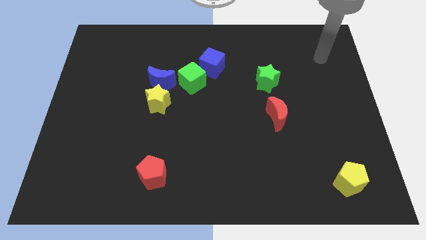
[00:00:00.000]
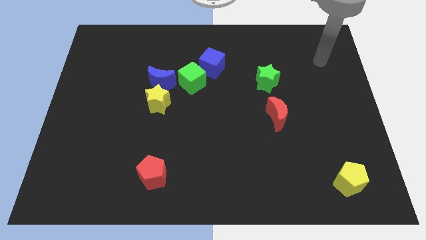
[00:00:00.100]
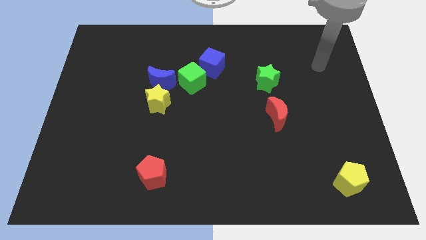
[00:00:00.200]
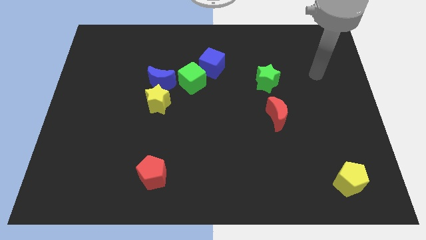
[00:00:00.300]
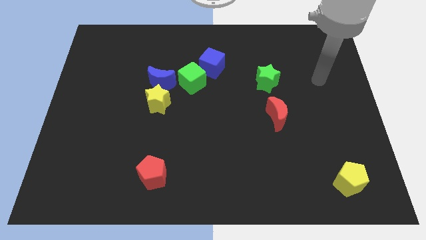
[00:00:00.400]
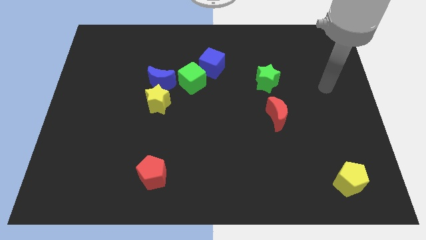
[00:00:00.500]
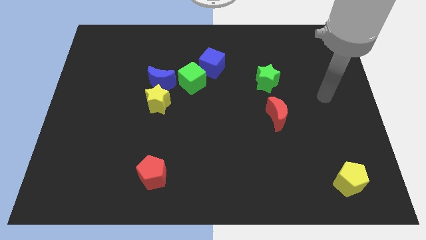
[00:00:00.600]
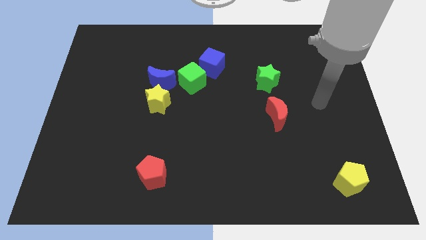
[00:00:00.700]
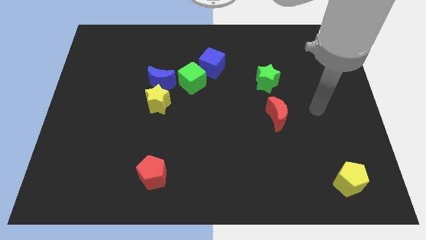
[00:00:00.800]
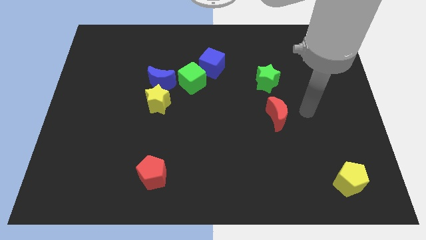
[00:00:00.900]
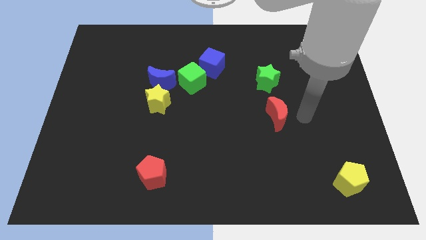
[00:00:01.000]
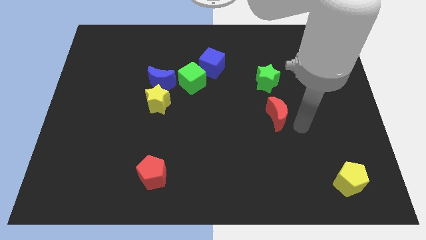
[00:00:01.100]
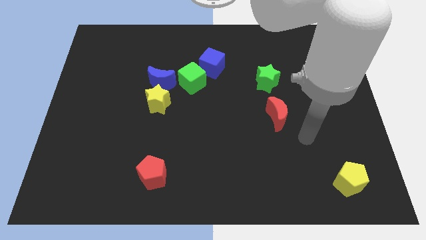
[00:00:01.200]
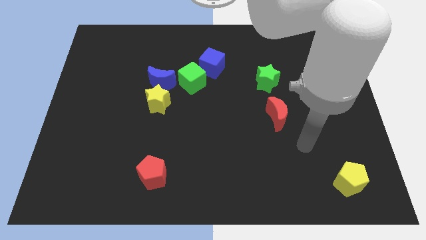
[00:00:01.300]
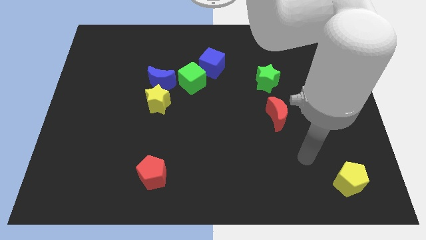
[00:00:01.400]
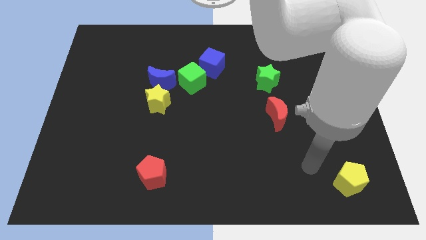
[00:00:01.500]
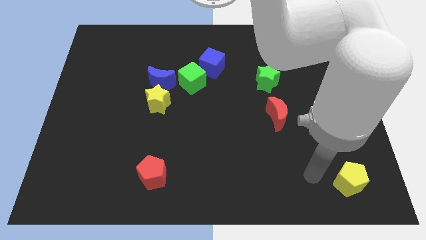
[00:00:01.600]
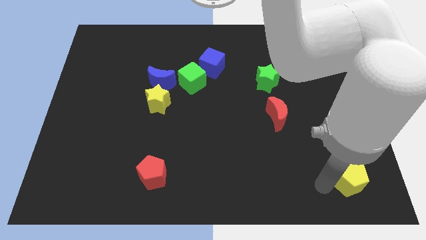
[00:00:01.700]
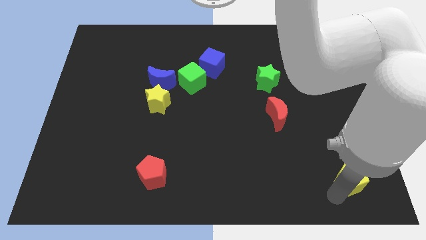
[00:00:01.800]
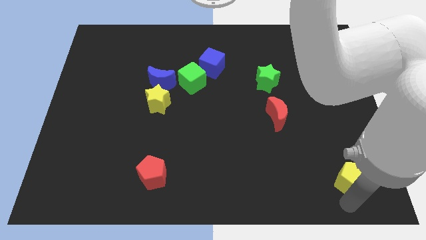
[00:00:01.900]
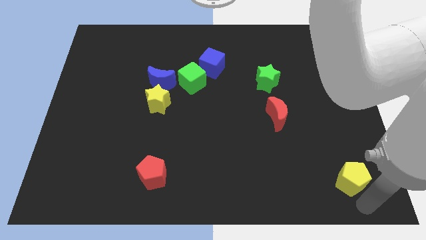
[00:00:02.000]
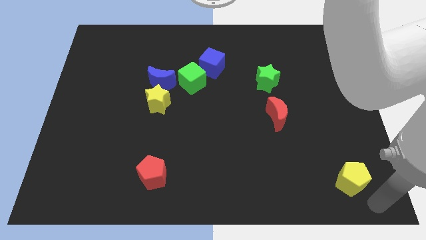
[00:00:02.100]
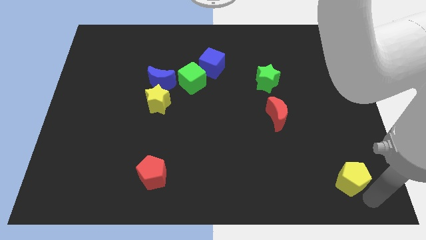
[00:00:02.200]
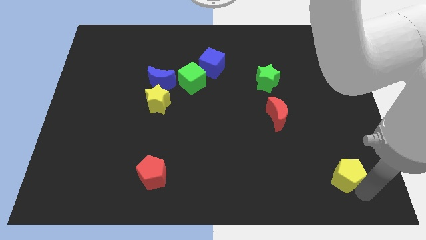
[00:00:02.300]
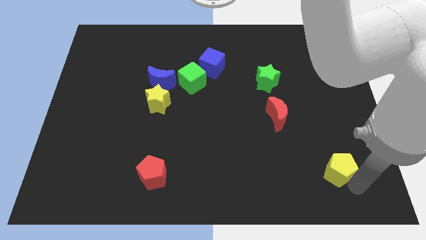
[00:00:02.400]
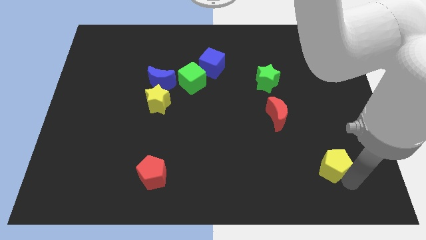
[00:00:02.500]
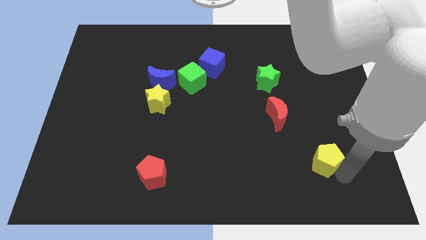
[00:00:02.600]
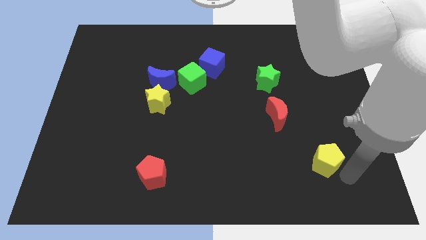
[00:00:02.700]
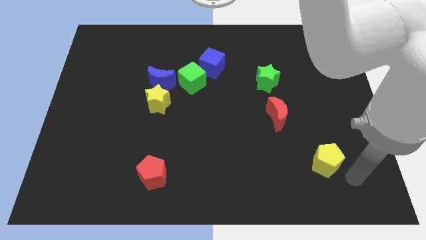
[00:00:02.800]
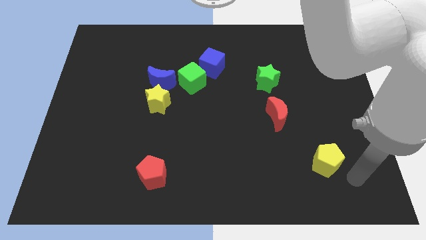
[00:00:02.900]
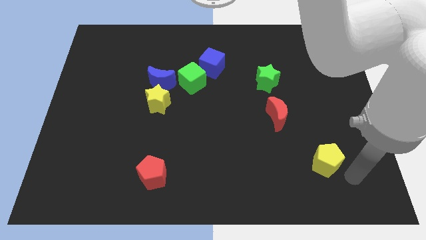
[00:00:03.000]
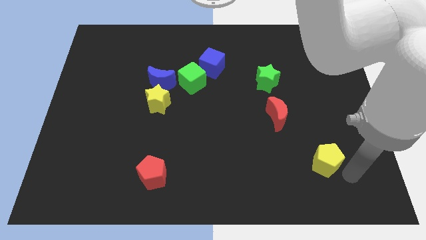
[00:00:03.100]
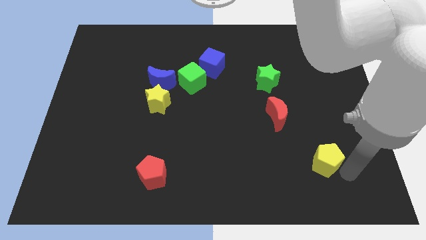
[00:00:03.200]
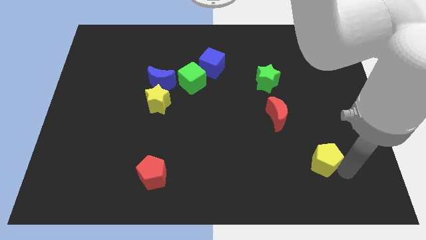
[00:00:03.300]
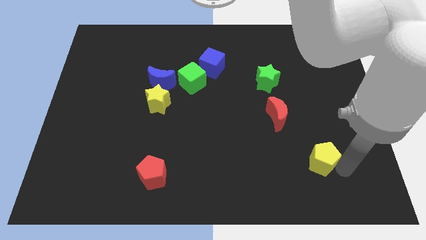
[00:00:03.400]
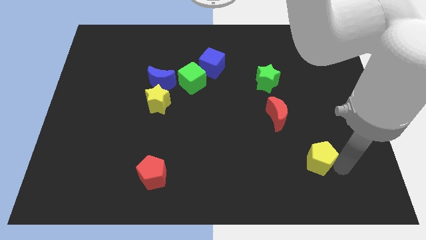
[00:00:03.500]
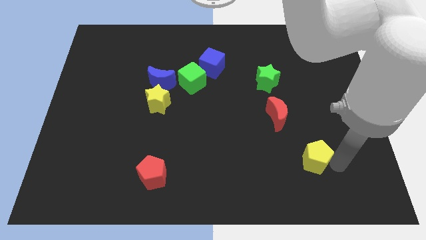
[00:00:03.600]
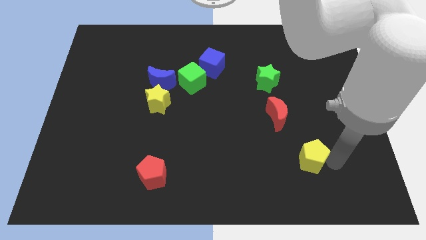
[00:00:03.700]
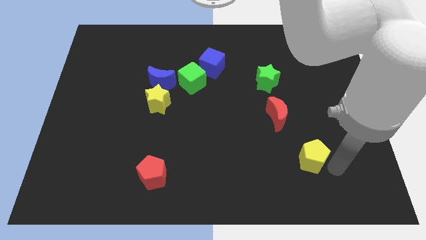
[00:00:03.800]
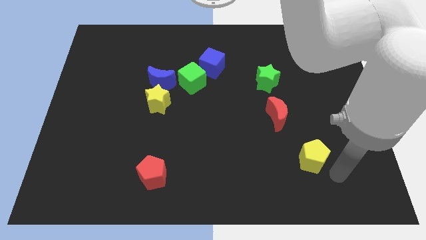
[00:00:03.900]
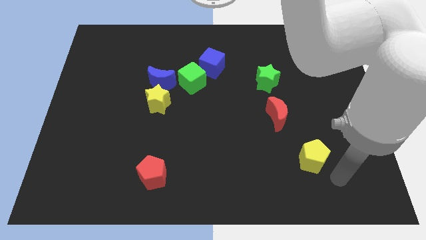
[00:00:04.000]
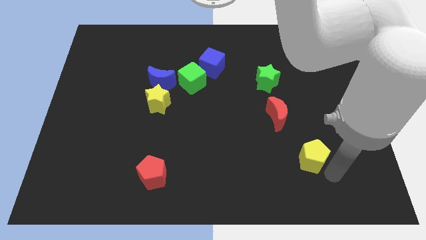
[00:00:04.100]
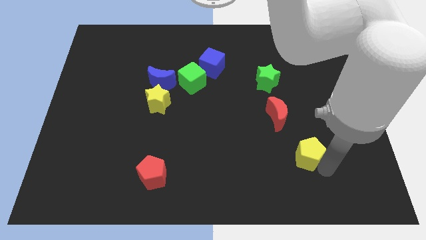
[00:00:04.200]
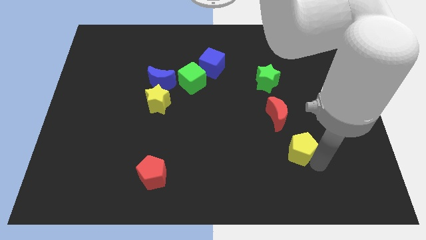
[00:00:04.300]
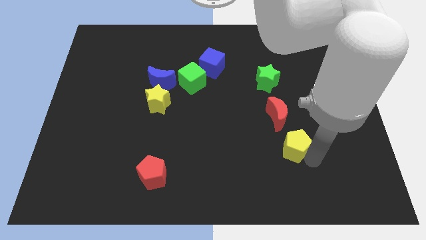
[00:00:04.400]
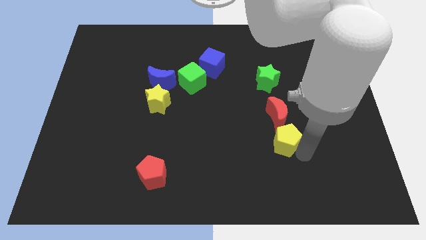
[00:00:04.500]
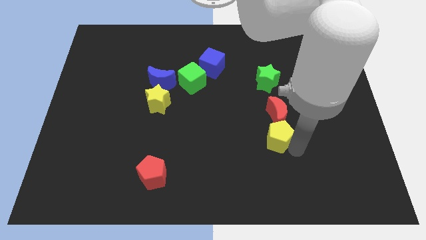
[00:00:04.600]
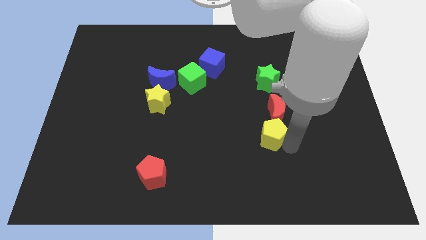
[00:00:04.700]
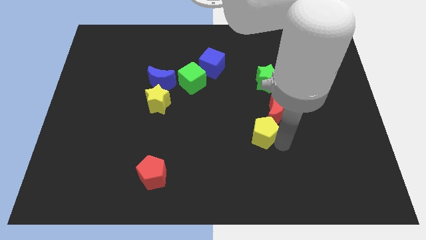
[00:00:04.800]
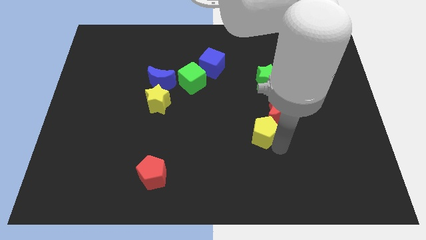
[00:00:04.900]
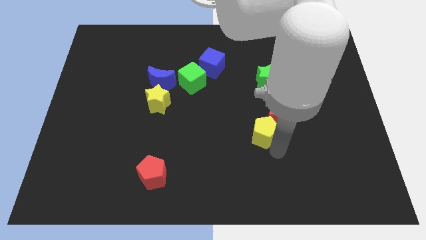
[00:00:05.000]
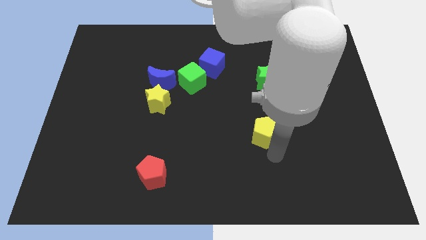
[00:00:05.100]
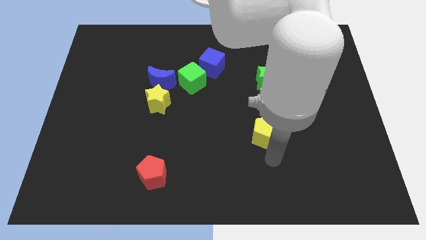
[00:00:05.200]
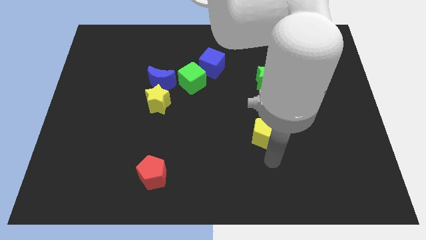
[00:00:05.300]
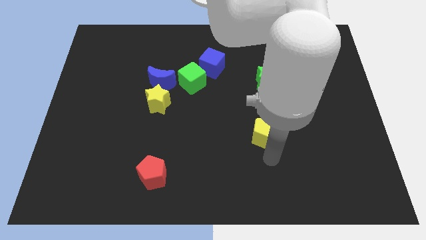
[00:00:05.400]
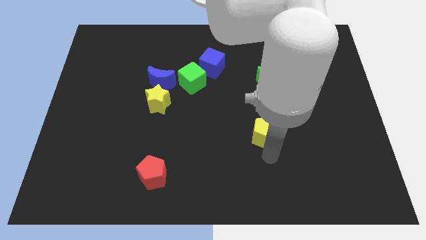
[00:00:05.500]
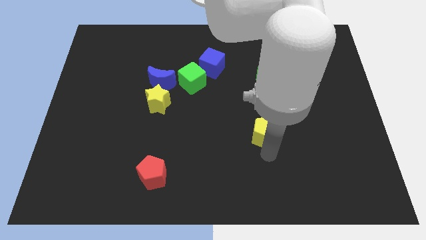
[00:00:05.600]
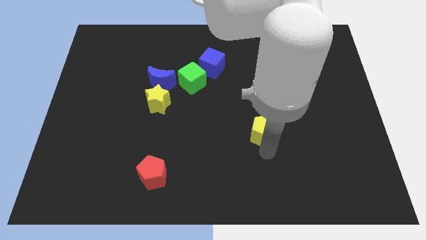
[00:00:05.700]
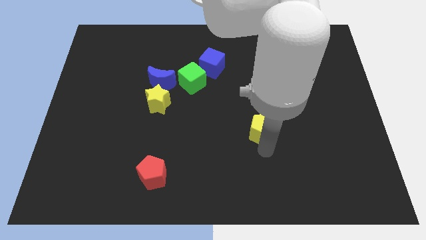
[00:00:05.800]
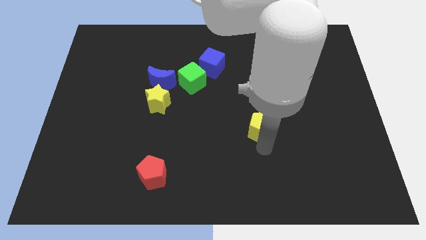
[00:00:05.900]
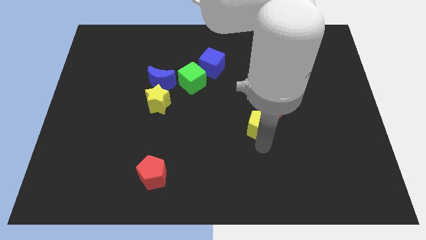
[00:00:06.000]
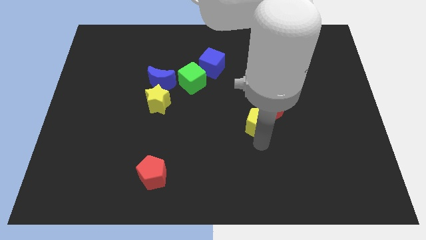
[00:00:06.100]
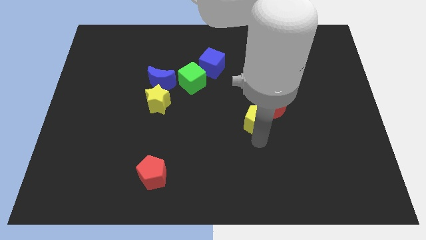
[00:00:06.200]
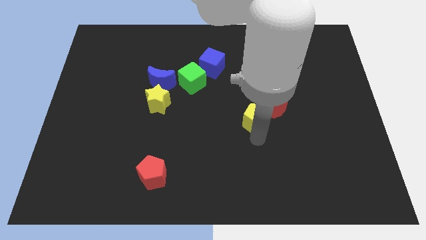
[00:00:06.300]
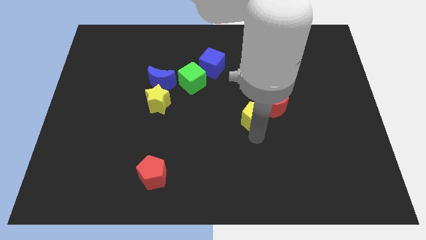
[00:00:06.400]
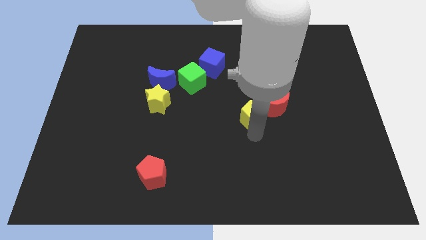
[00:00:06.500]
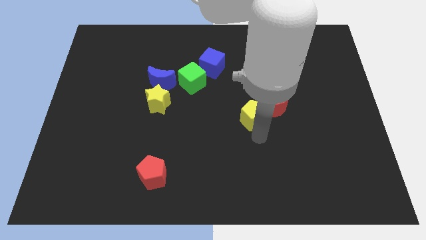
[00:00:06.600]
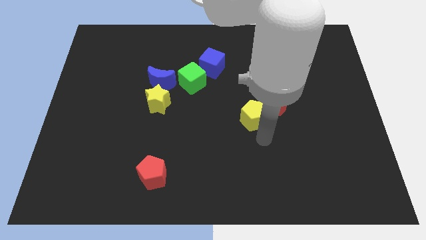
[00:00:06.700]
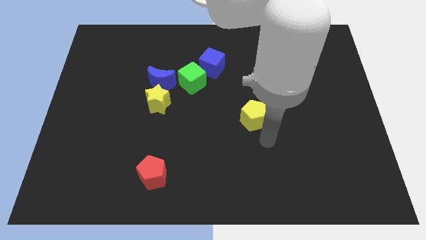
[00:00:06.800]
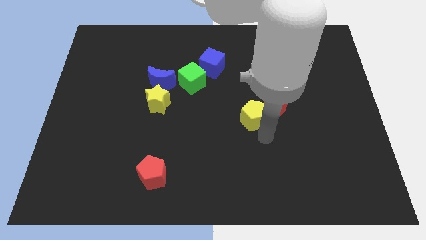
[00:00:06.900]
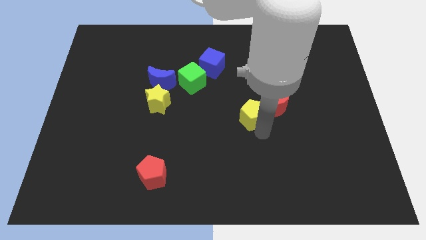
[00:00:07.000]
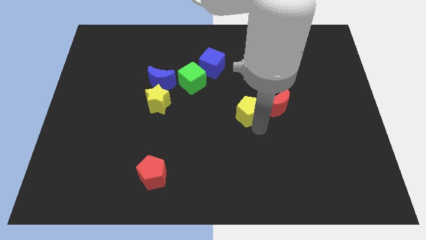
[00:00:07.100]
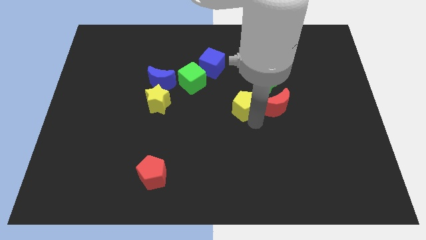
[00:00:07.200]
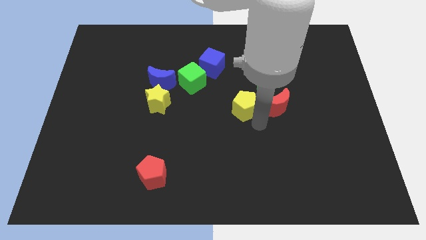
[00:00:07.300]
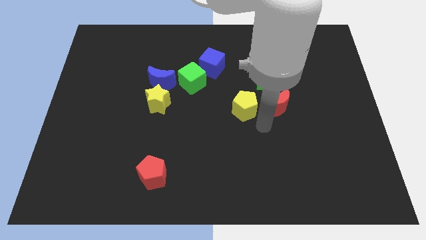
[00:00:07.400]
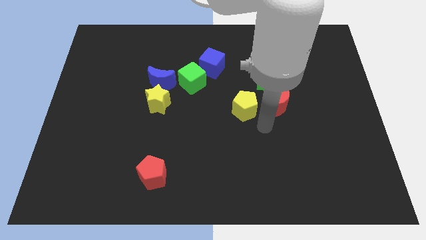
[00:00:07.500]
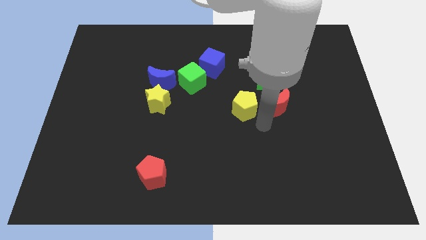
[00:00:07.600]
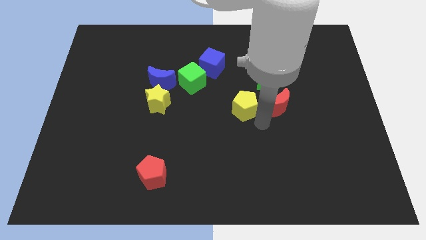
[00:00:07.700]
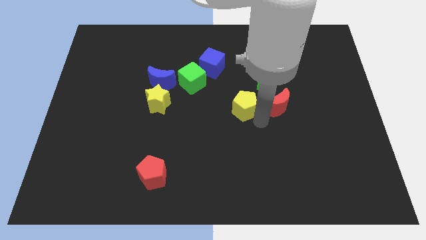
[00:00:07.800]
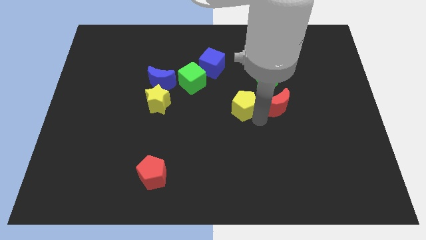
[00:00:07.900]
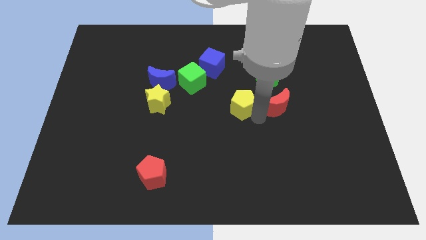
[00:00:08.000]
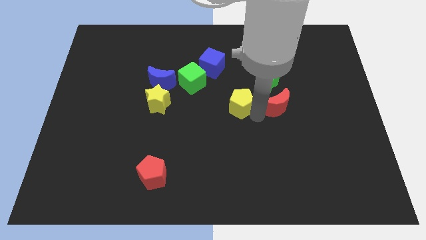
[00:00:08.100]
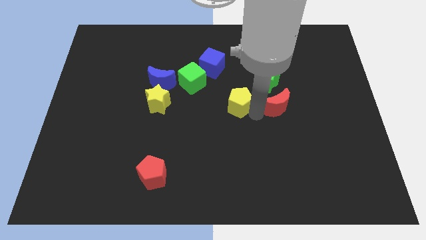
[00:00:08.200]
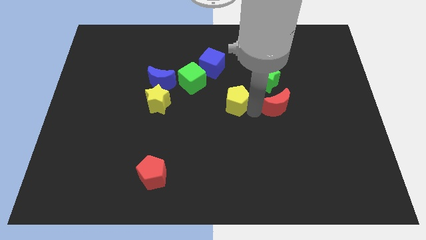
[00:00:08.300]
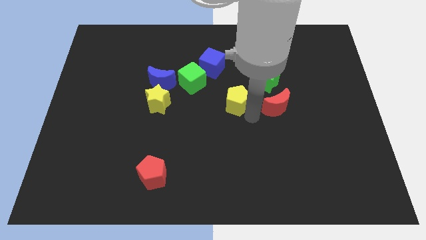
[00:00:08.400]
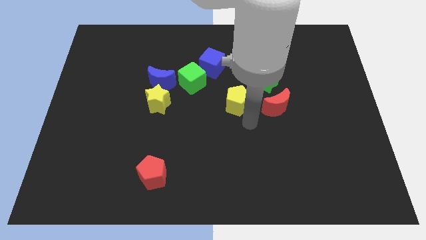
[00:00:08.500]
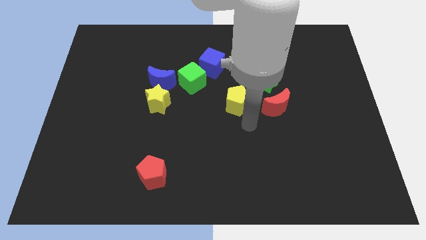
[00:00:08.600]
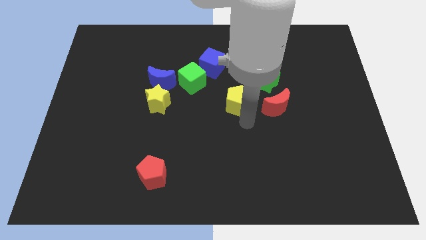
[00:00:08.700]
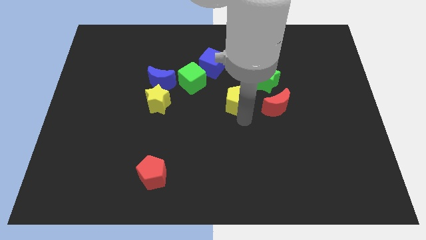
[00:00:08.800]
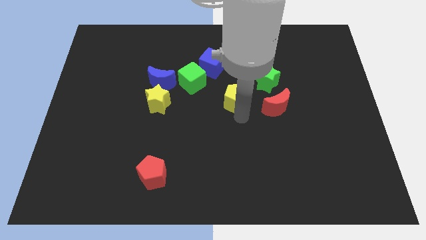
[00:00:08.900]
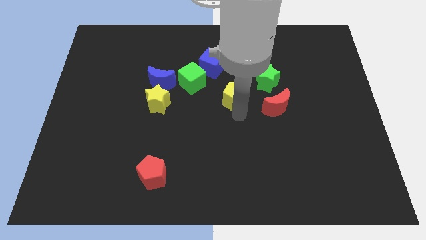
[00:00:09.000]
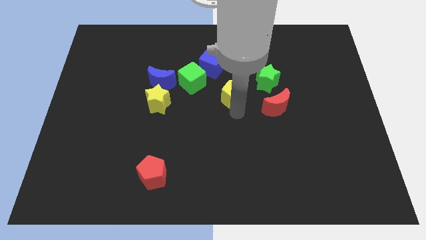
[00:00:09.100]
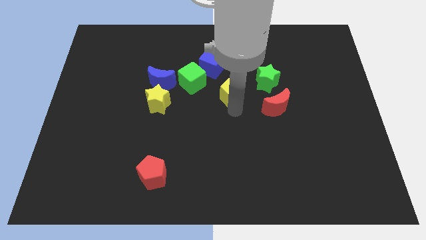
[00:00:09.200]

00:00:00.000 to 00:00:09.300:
move the yellow pentagon to the left of the green star
